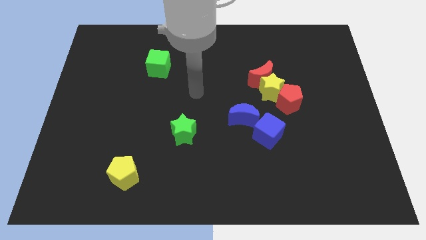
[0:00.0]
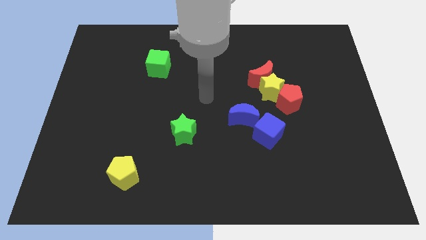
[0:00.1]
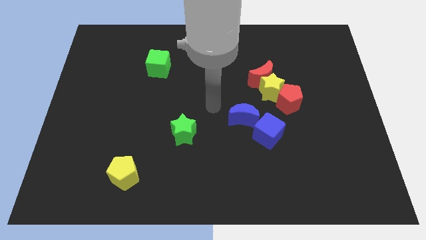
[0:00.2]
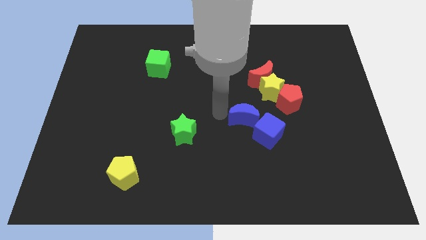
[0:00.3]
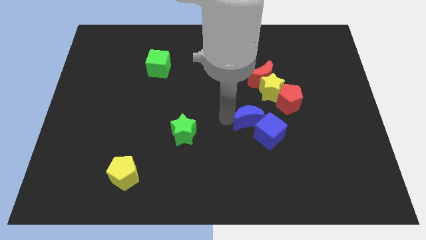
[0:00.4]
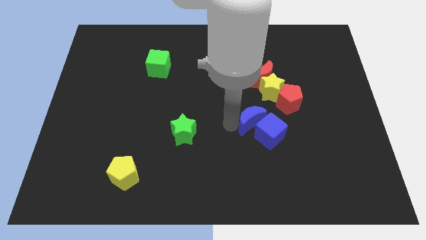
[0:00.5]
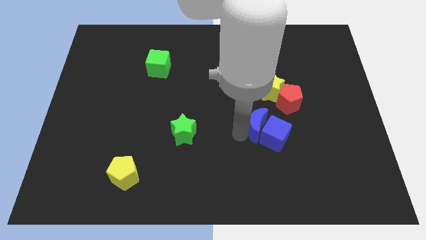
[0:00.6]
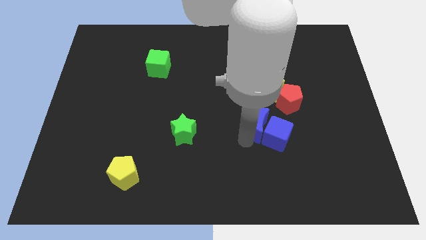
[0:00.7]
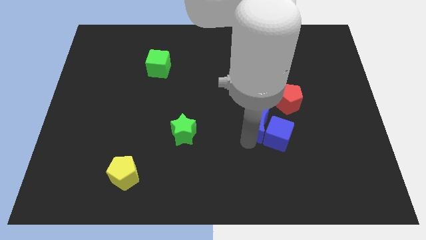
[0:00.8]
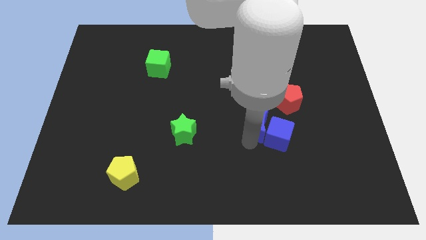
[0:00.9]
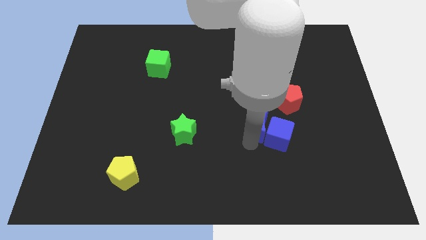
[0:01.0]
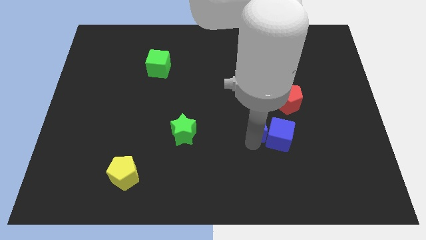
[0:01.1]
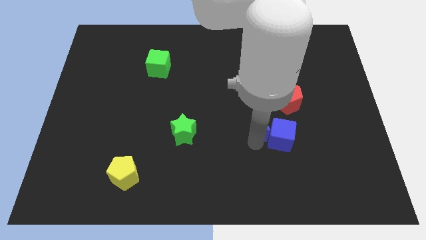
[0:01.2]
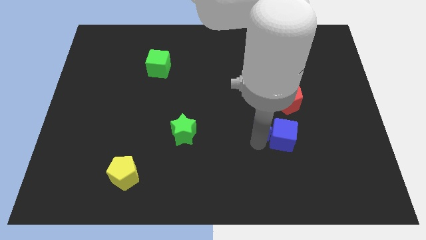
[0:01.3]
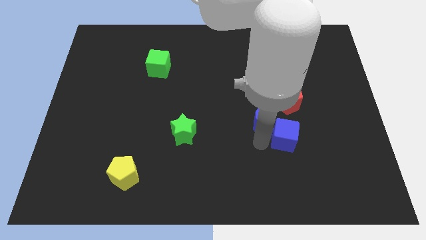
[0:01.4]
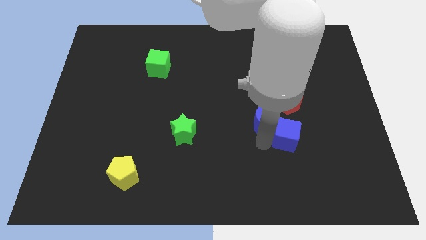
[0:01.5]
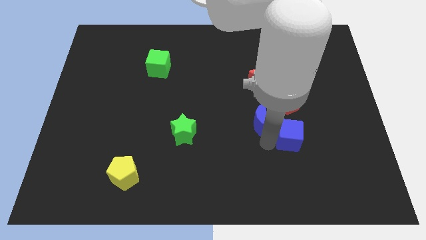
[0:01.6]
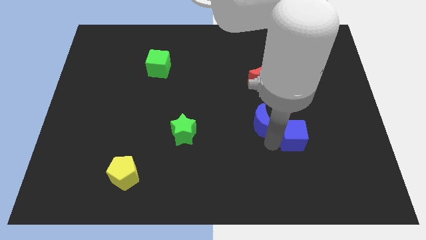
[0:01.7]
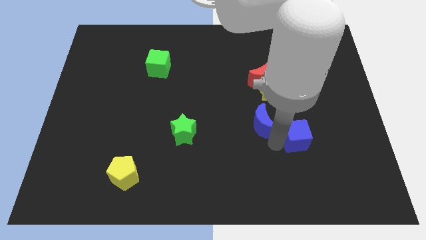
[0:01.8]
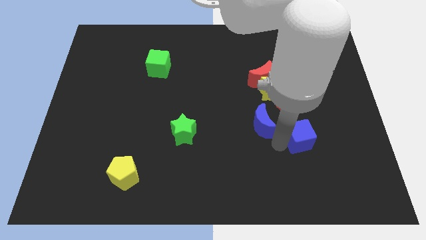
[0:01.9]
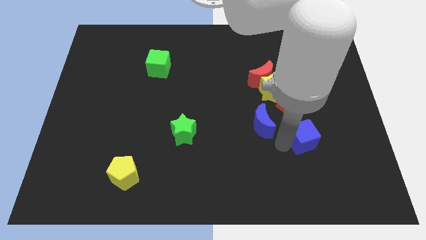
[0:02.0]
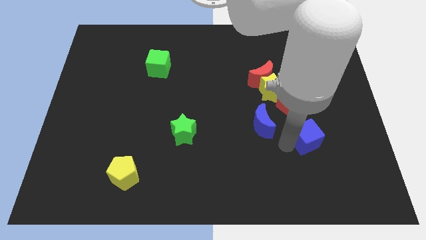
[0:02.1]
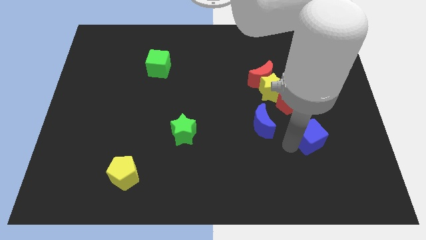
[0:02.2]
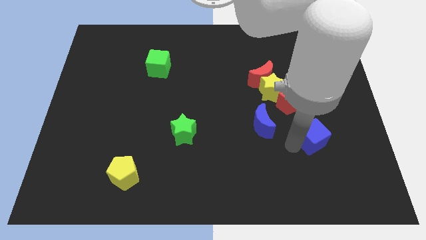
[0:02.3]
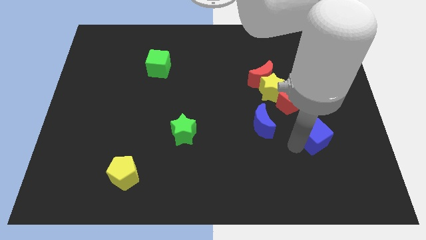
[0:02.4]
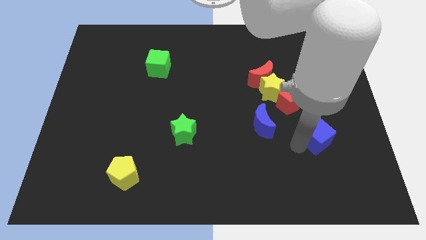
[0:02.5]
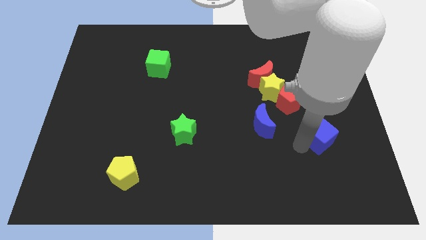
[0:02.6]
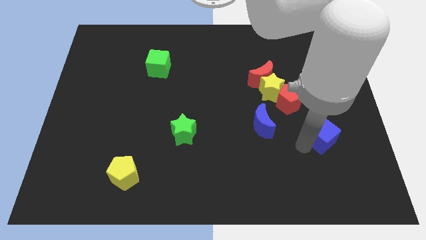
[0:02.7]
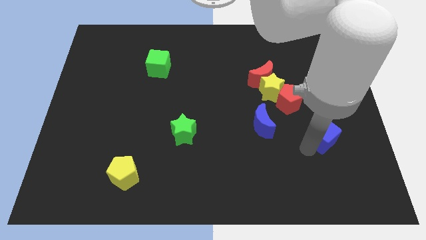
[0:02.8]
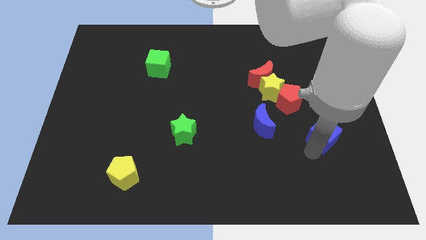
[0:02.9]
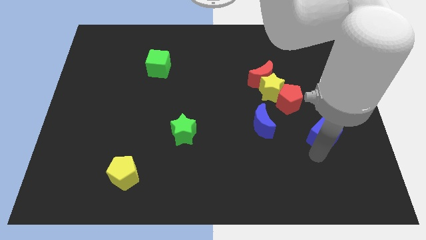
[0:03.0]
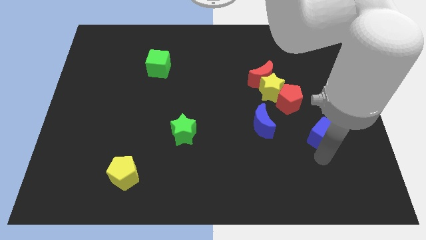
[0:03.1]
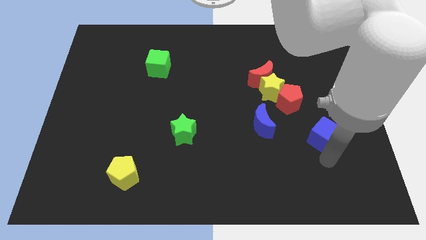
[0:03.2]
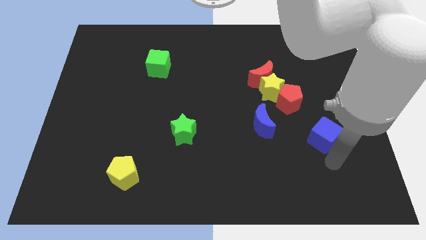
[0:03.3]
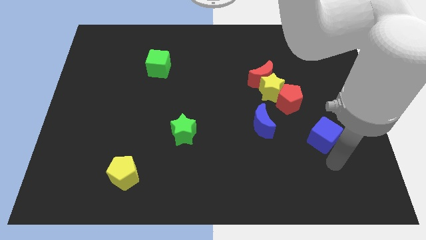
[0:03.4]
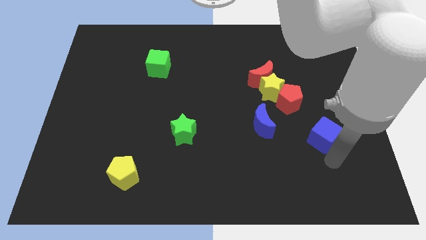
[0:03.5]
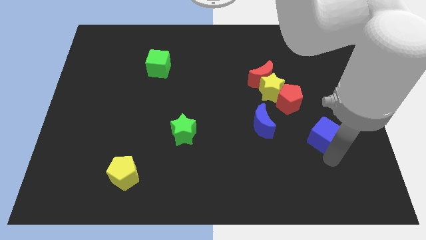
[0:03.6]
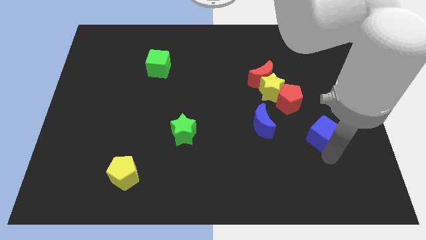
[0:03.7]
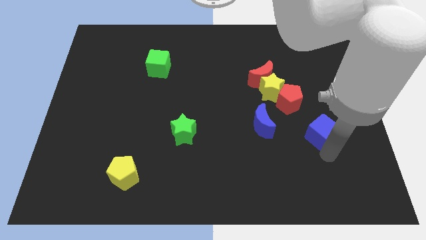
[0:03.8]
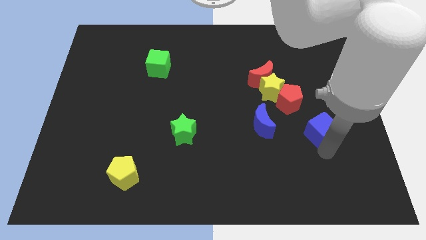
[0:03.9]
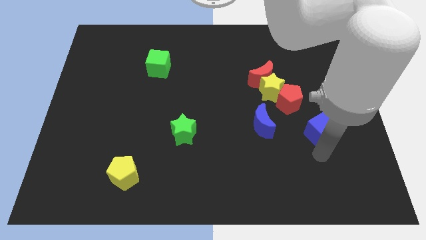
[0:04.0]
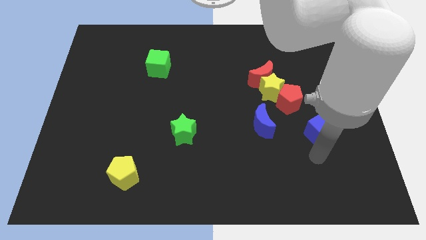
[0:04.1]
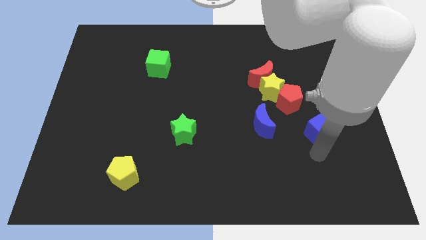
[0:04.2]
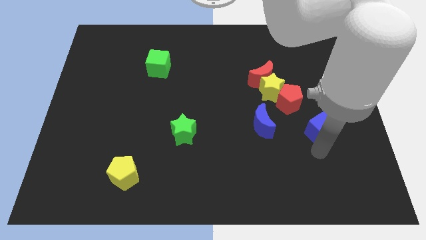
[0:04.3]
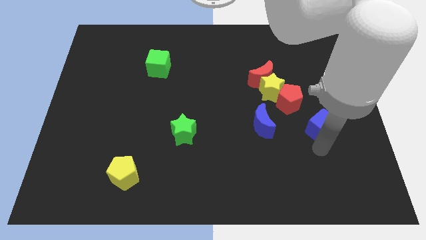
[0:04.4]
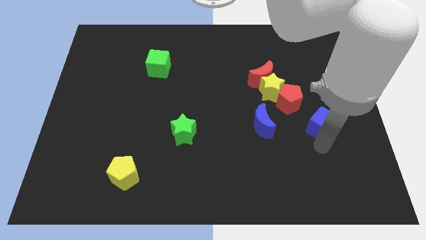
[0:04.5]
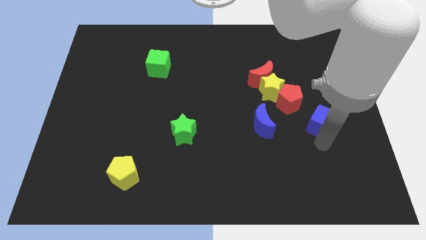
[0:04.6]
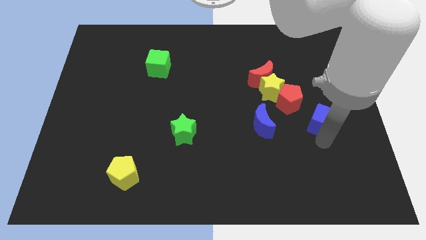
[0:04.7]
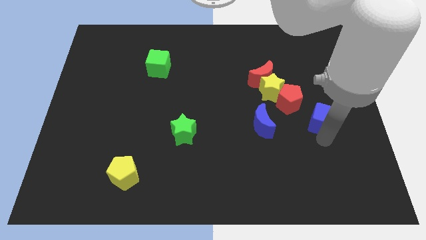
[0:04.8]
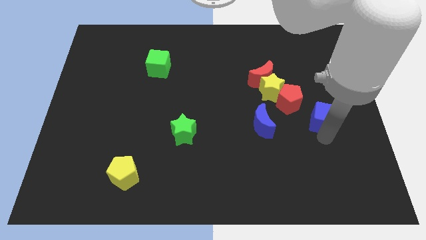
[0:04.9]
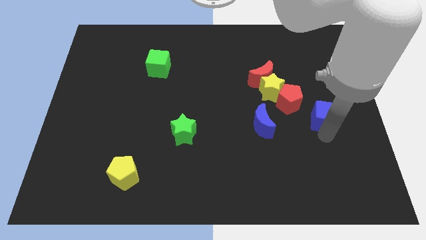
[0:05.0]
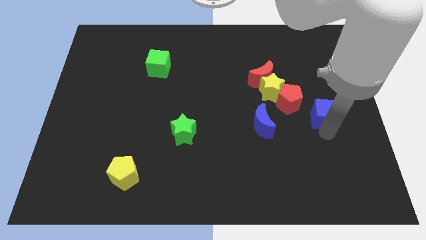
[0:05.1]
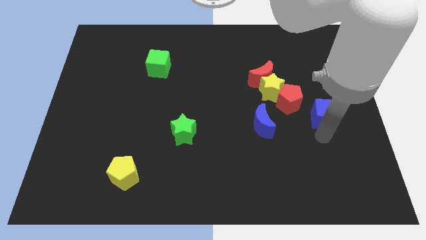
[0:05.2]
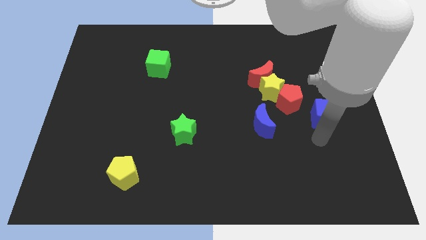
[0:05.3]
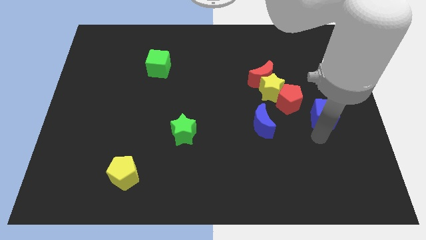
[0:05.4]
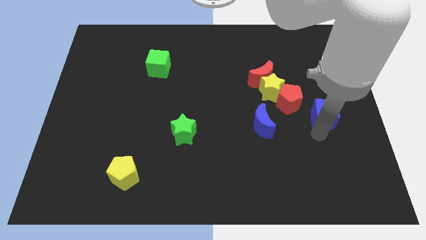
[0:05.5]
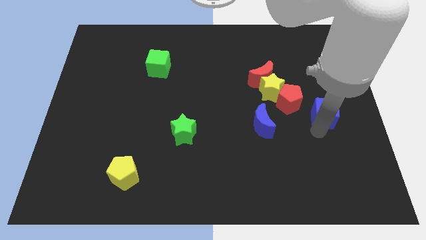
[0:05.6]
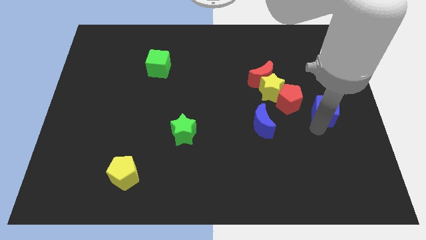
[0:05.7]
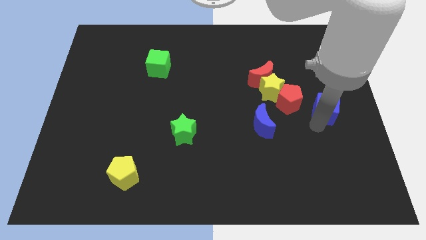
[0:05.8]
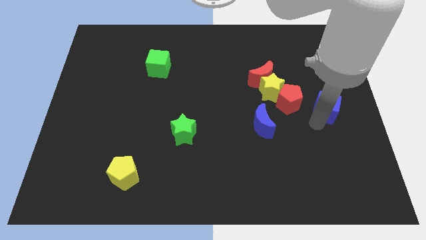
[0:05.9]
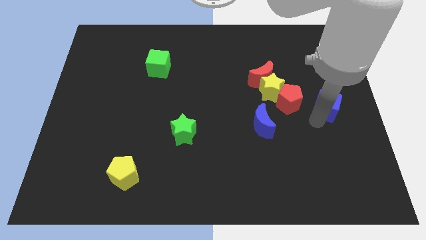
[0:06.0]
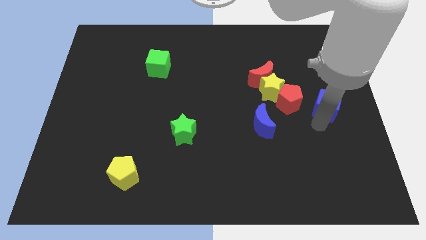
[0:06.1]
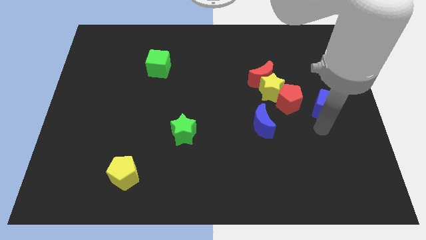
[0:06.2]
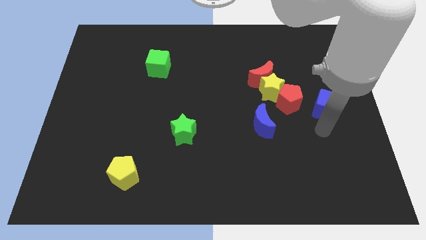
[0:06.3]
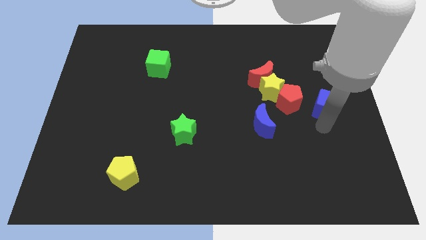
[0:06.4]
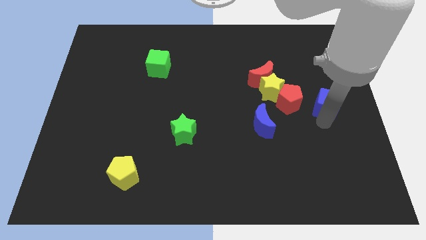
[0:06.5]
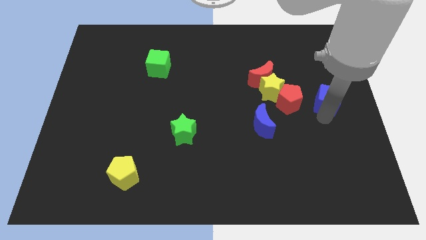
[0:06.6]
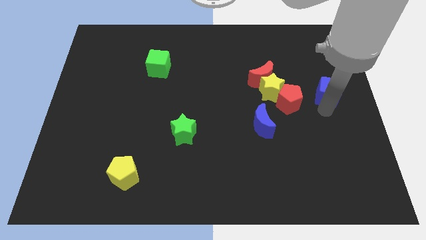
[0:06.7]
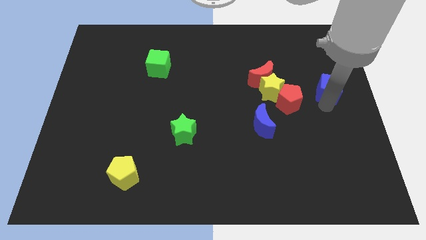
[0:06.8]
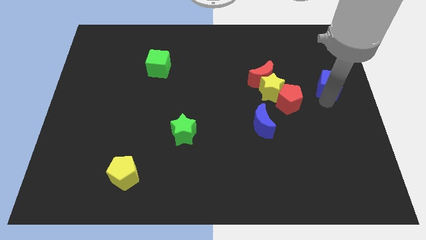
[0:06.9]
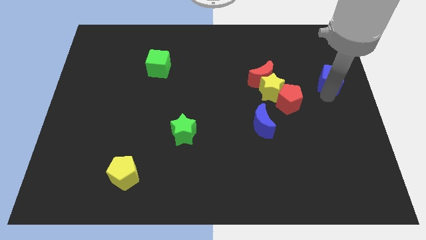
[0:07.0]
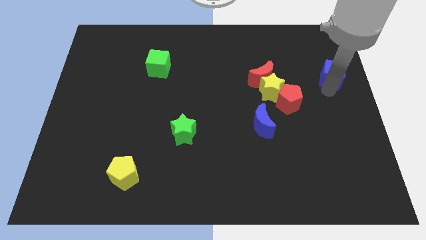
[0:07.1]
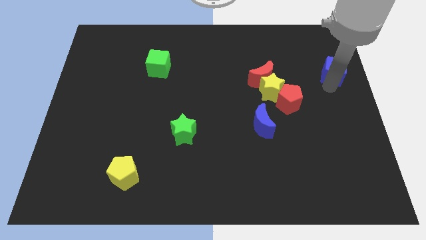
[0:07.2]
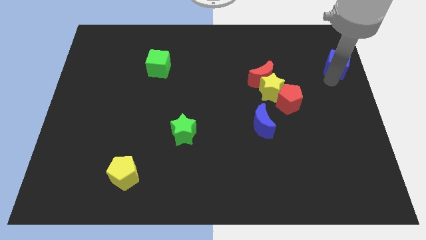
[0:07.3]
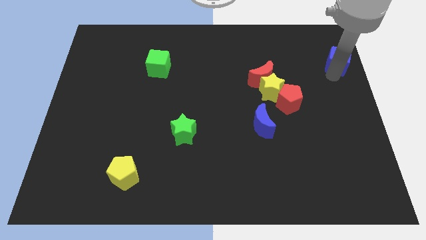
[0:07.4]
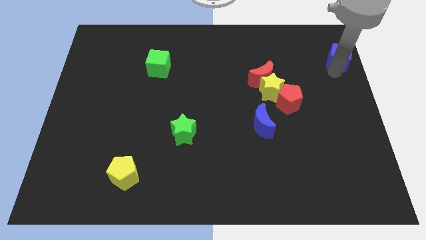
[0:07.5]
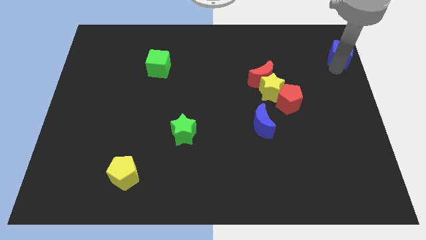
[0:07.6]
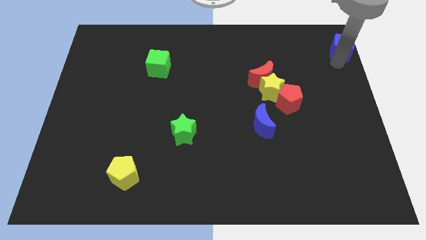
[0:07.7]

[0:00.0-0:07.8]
push the blue cube to the top right of the board
